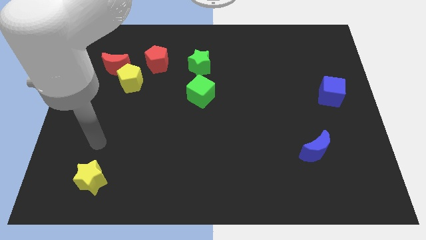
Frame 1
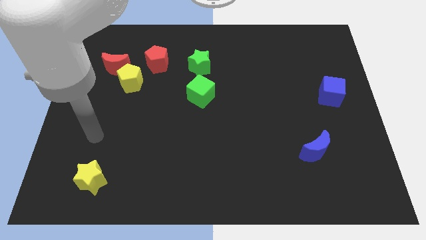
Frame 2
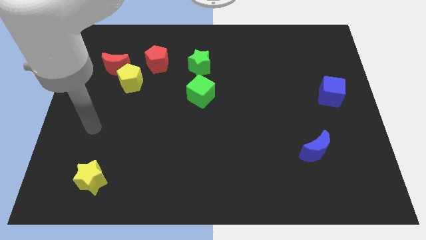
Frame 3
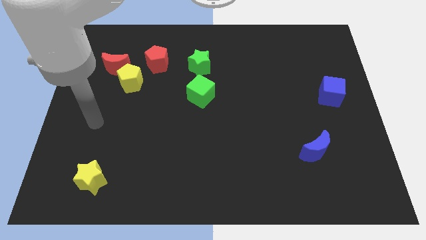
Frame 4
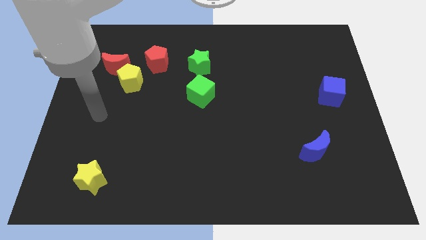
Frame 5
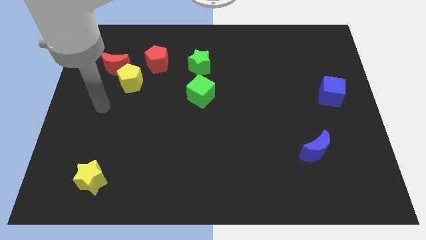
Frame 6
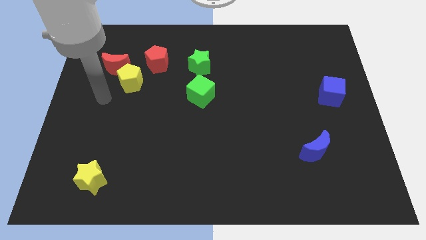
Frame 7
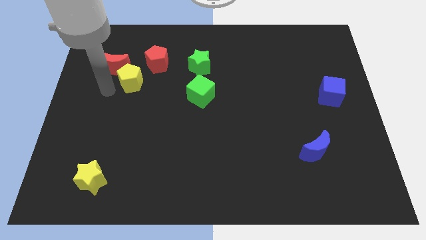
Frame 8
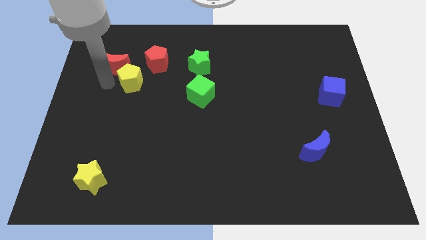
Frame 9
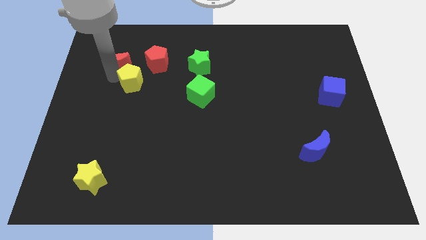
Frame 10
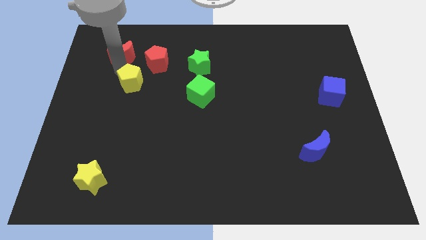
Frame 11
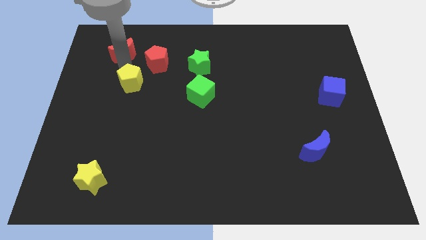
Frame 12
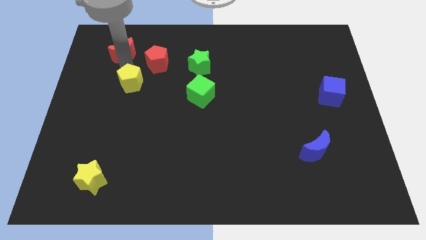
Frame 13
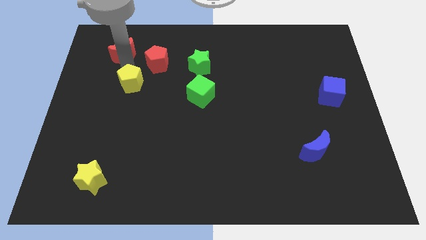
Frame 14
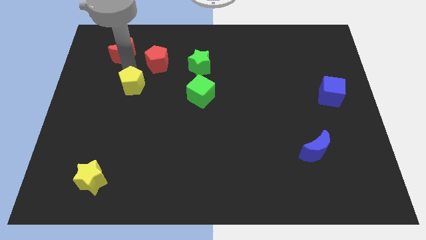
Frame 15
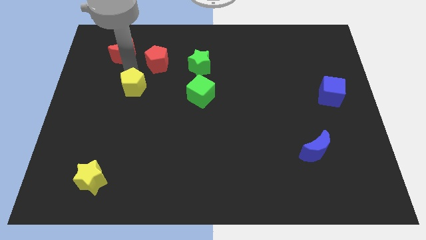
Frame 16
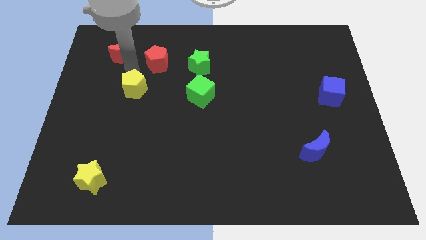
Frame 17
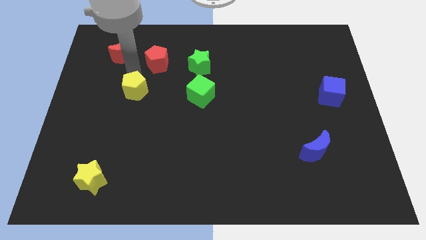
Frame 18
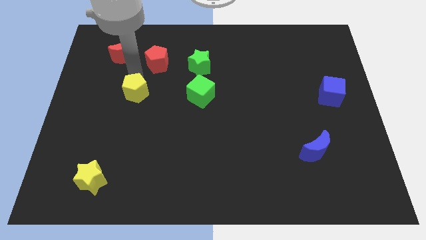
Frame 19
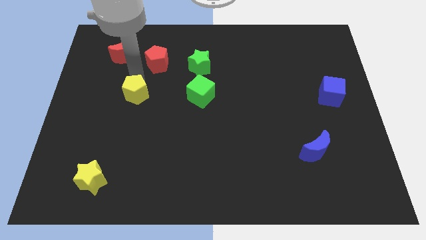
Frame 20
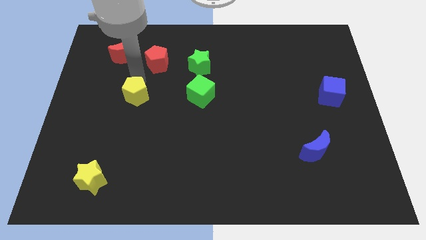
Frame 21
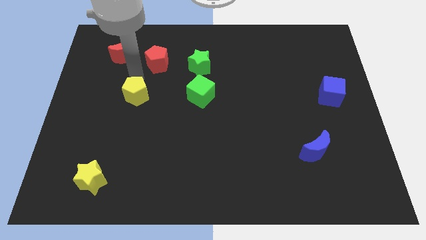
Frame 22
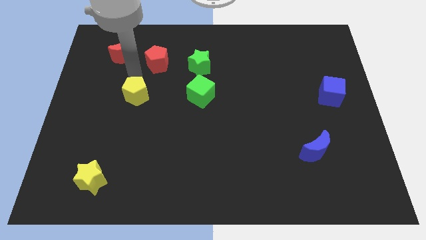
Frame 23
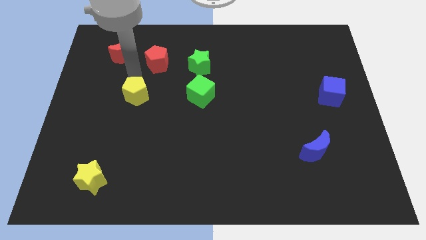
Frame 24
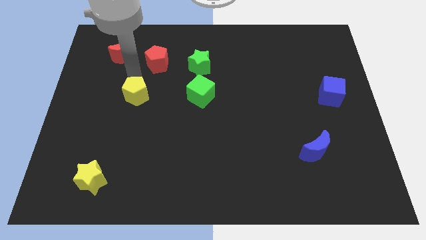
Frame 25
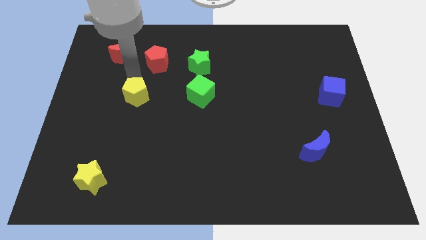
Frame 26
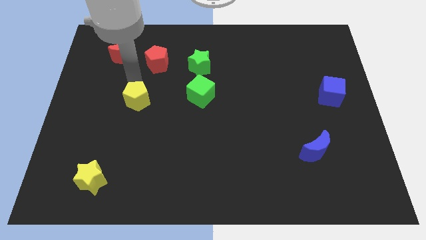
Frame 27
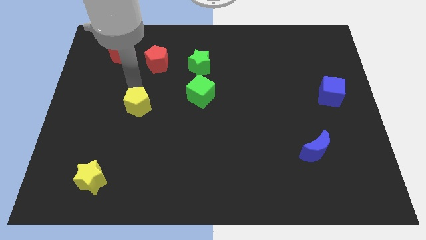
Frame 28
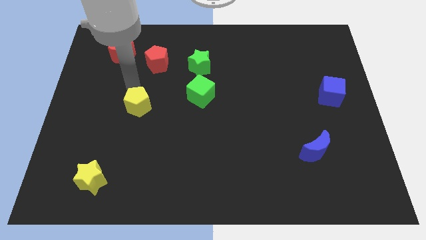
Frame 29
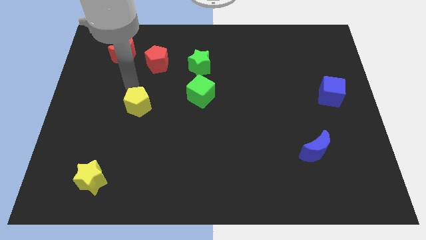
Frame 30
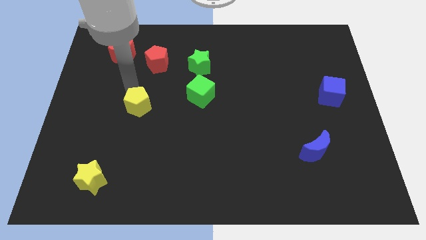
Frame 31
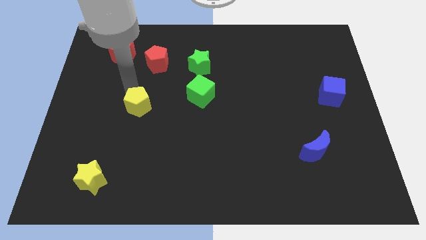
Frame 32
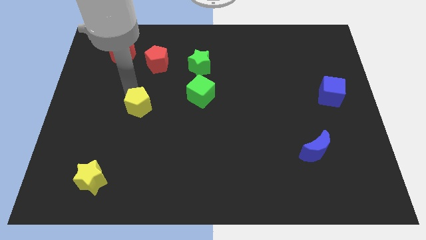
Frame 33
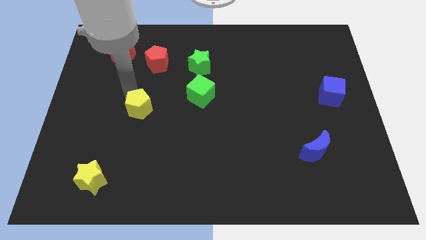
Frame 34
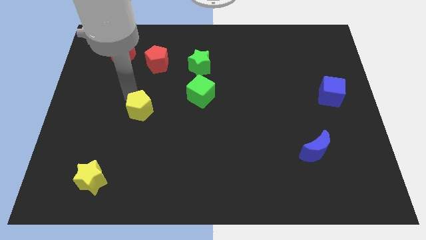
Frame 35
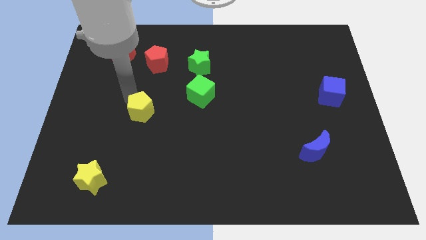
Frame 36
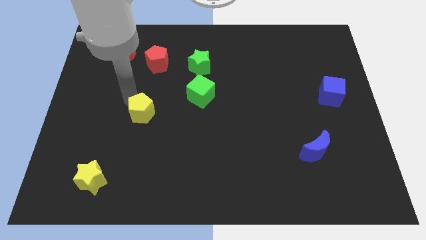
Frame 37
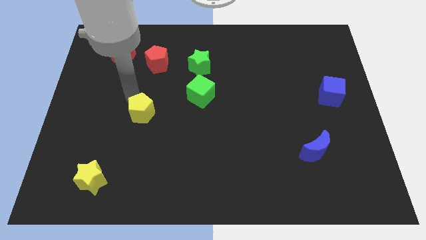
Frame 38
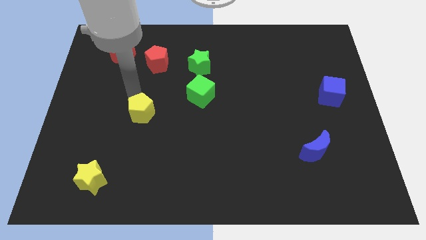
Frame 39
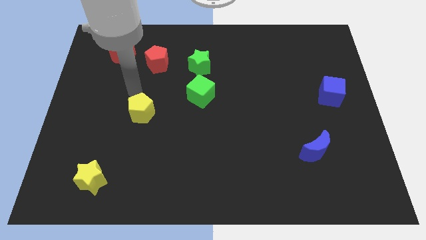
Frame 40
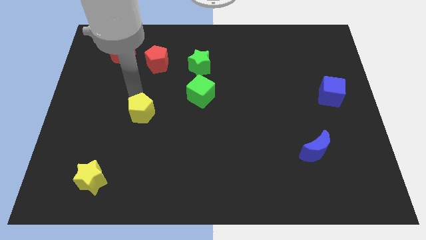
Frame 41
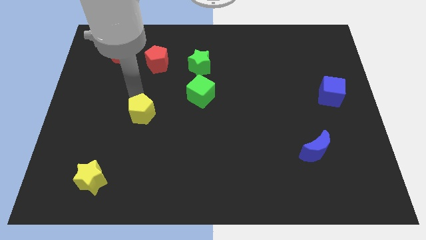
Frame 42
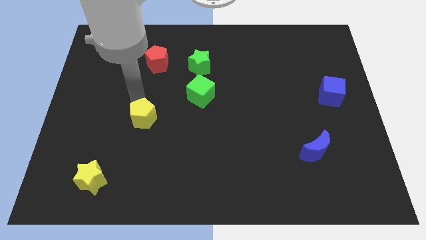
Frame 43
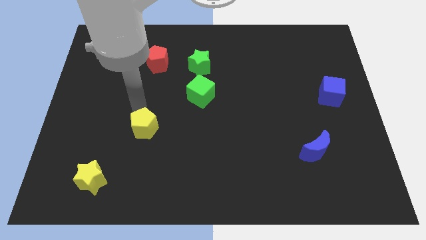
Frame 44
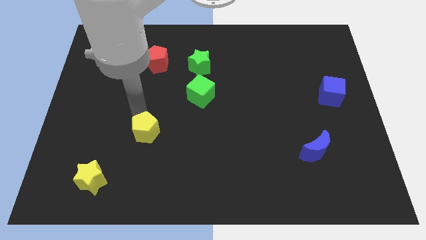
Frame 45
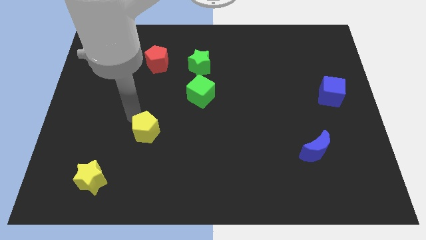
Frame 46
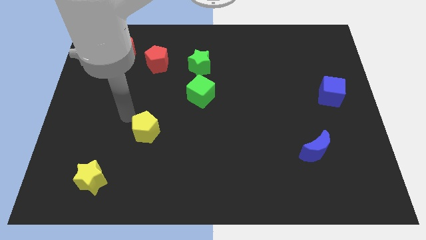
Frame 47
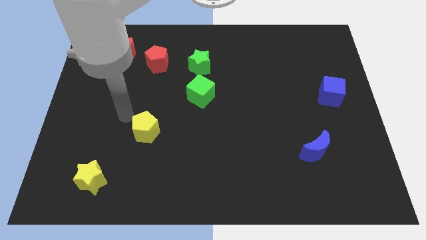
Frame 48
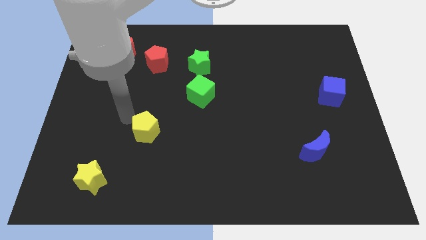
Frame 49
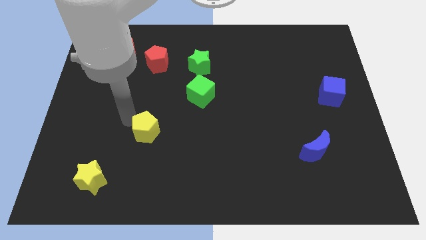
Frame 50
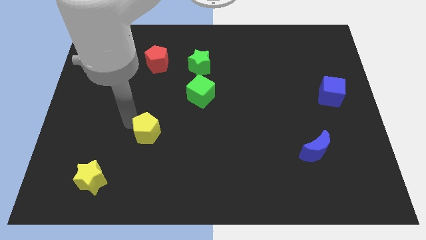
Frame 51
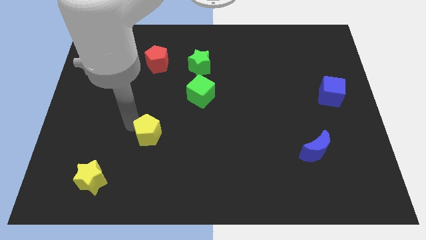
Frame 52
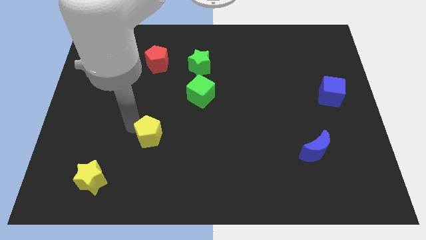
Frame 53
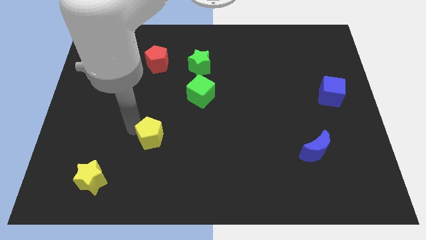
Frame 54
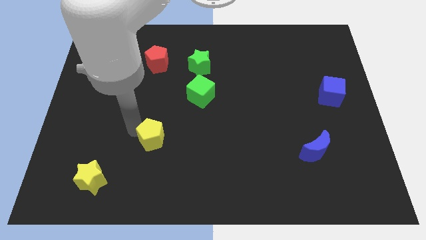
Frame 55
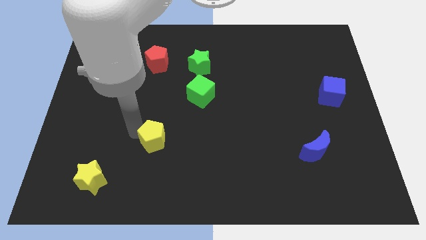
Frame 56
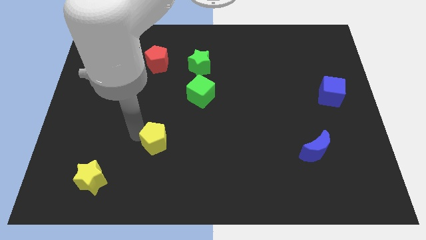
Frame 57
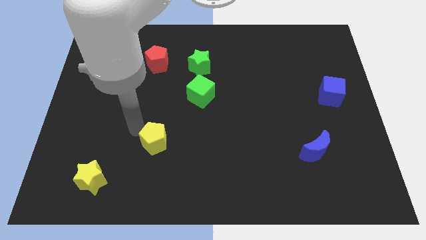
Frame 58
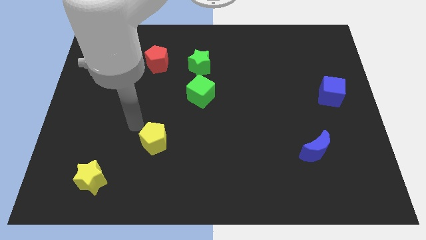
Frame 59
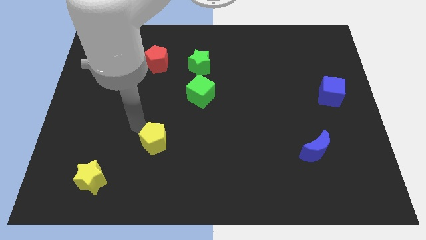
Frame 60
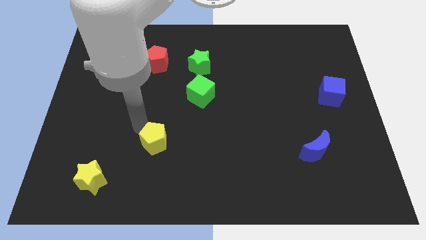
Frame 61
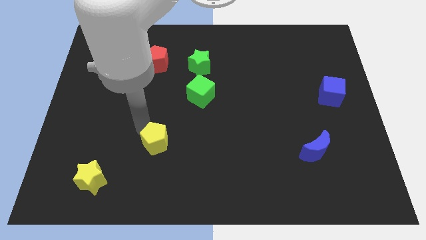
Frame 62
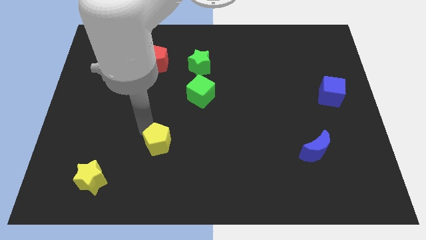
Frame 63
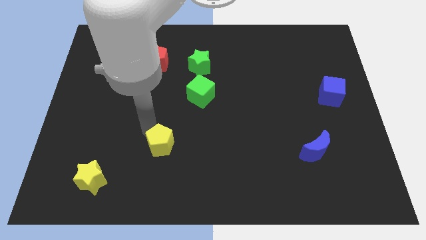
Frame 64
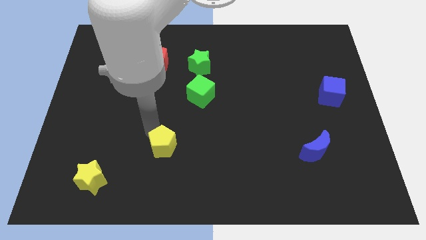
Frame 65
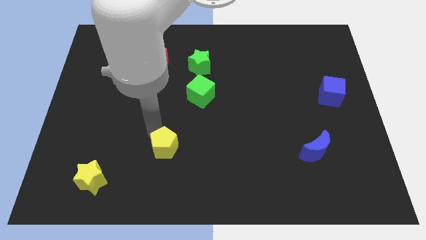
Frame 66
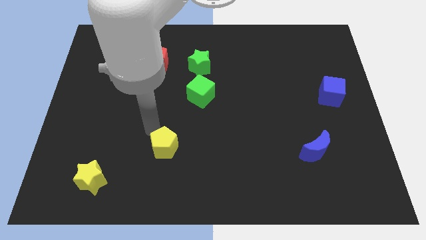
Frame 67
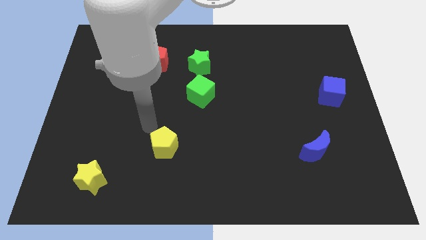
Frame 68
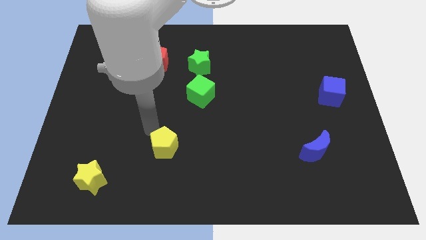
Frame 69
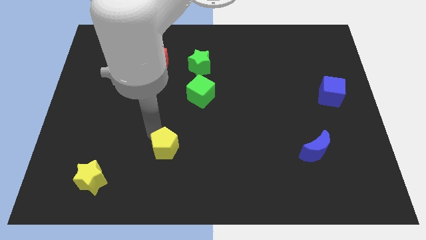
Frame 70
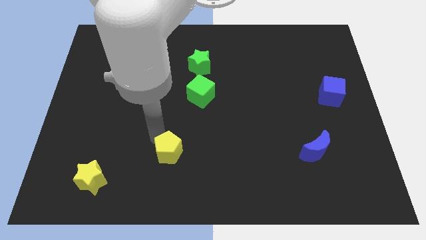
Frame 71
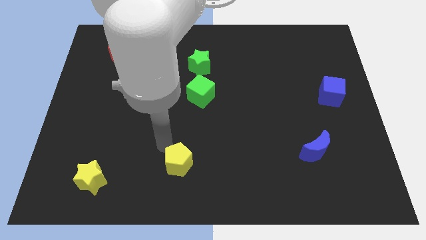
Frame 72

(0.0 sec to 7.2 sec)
push the yellow pentagon to the bottom side

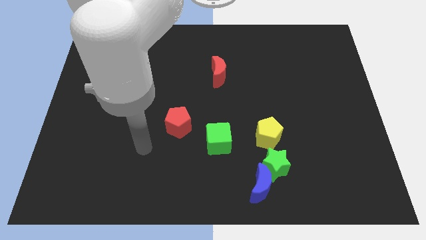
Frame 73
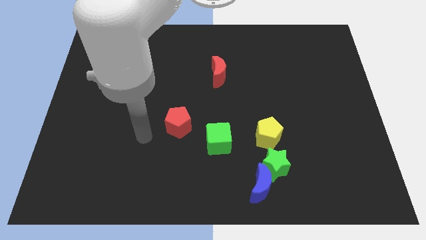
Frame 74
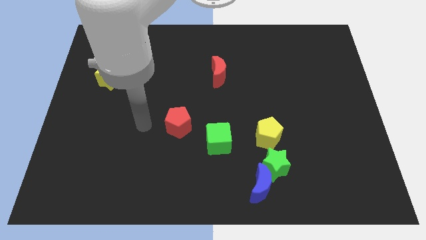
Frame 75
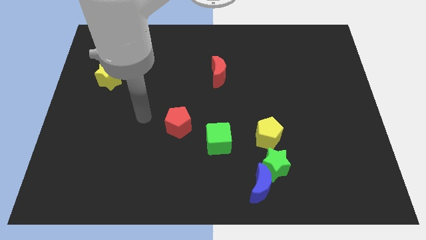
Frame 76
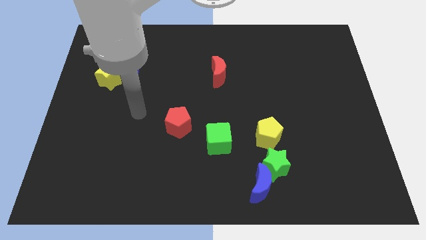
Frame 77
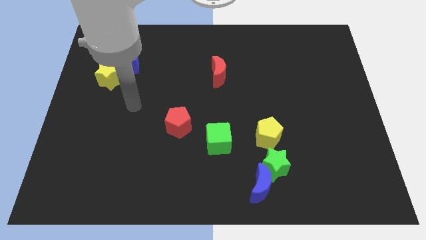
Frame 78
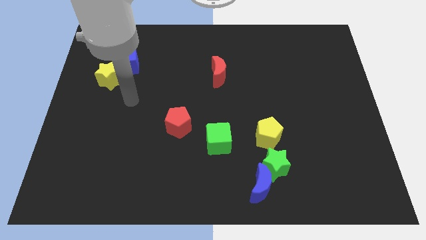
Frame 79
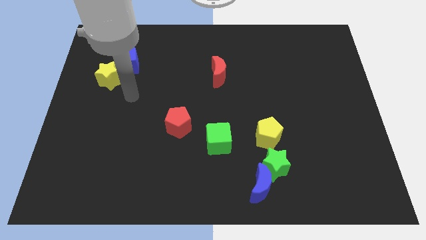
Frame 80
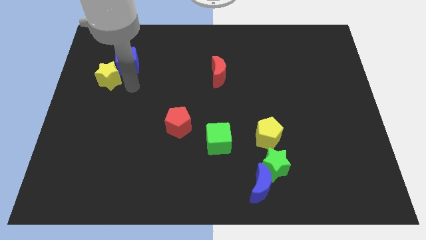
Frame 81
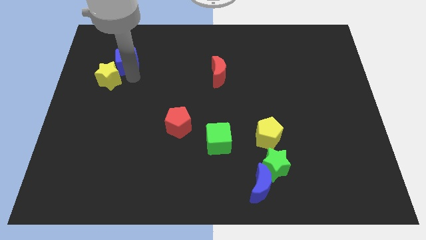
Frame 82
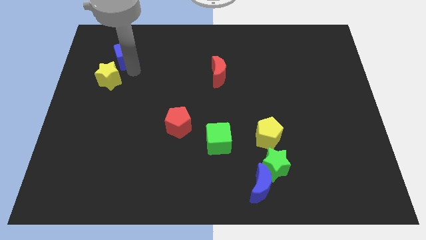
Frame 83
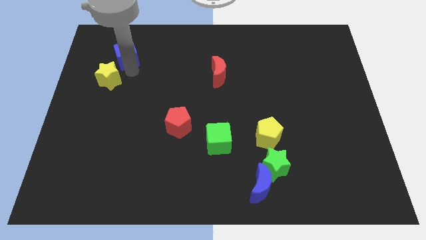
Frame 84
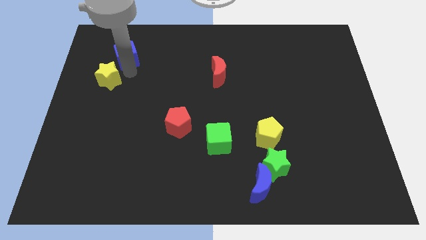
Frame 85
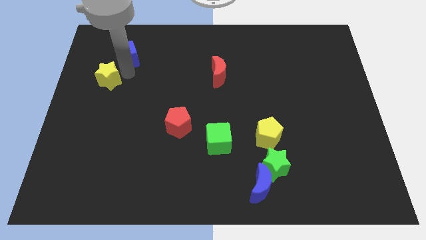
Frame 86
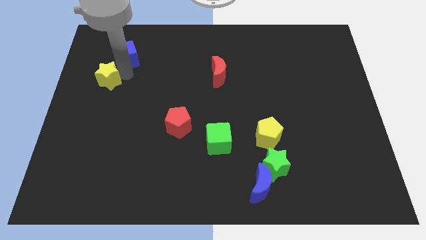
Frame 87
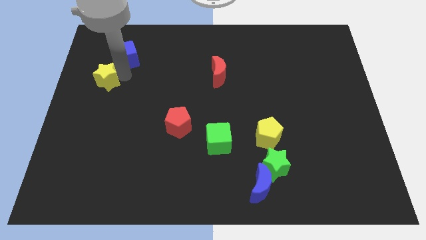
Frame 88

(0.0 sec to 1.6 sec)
move the yellow star to the left side of the board
